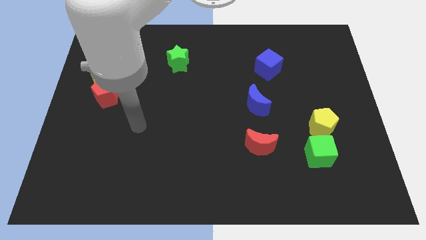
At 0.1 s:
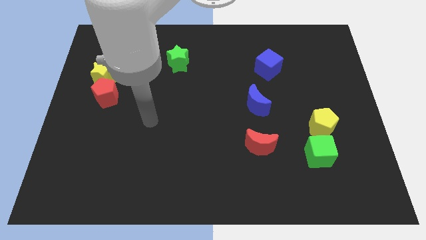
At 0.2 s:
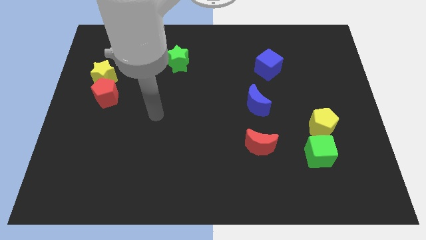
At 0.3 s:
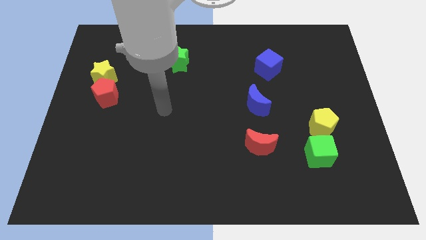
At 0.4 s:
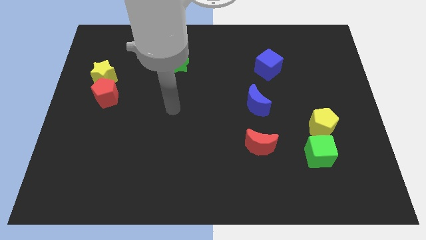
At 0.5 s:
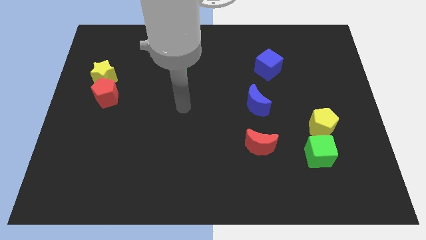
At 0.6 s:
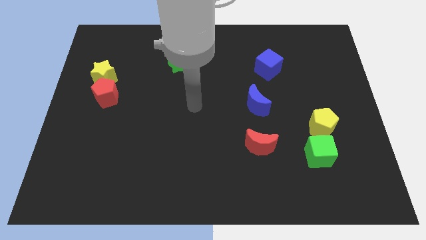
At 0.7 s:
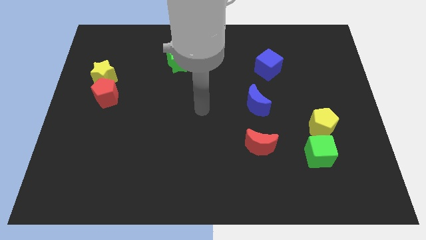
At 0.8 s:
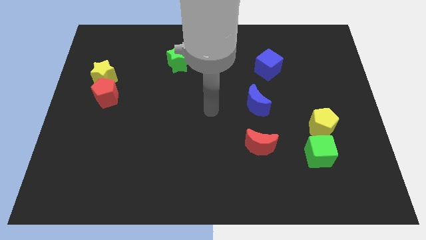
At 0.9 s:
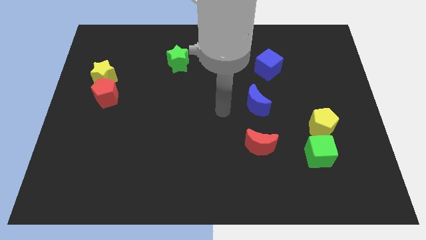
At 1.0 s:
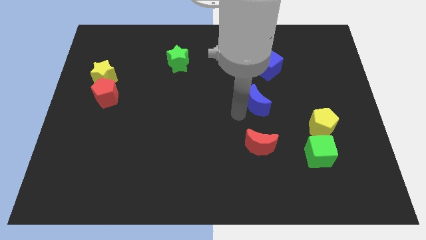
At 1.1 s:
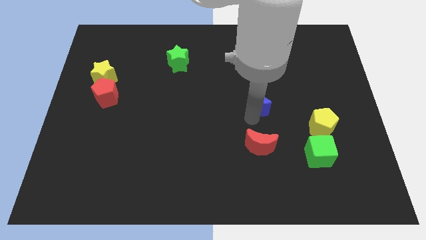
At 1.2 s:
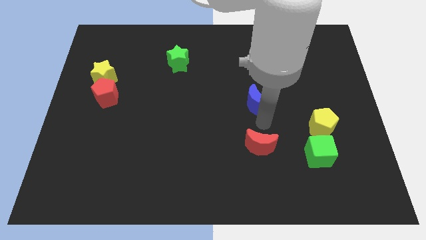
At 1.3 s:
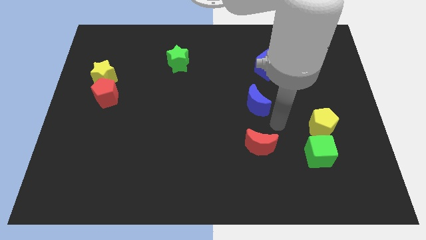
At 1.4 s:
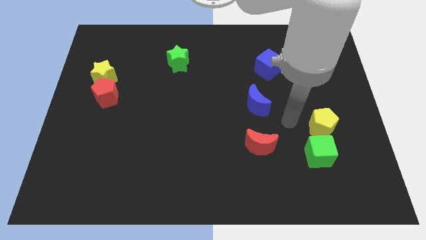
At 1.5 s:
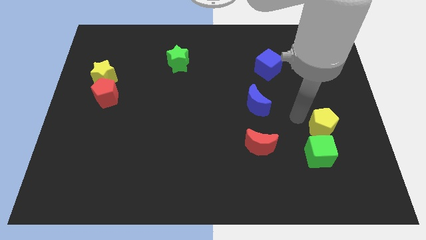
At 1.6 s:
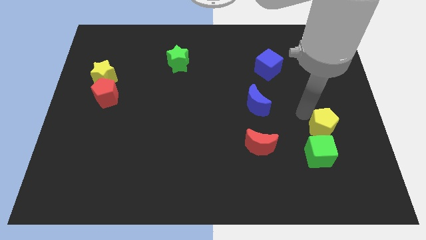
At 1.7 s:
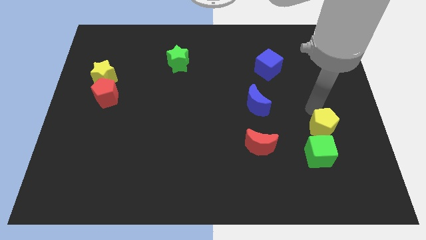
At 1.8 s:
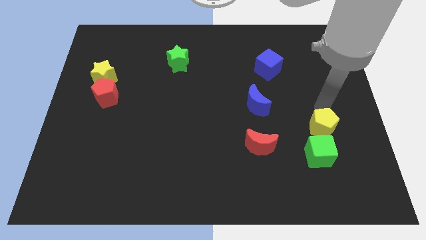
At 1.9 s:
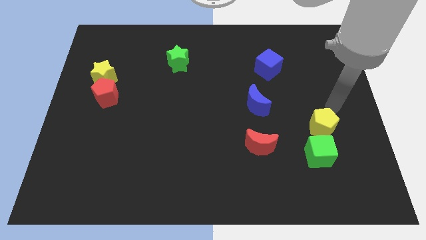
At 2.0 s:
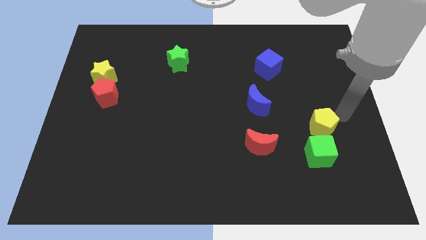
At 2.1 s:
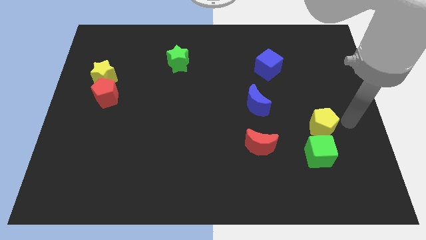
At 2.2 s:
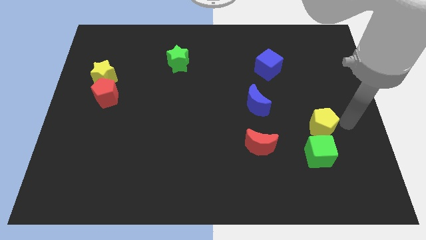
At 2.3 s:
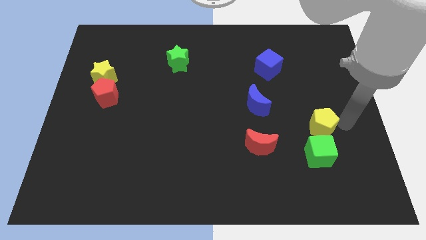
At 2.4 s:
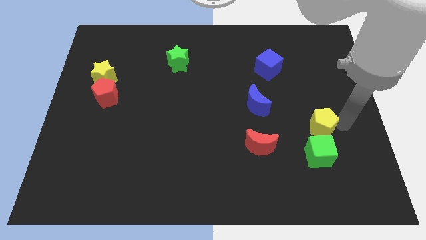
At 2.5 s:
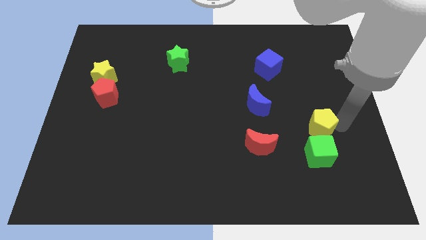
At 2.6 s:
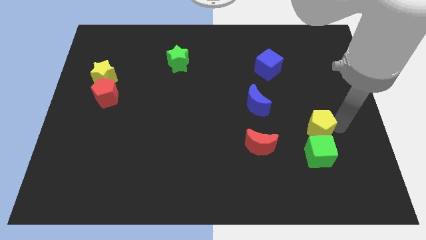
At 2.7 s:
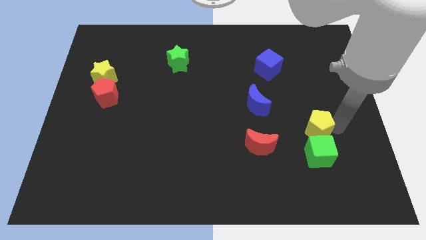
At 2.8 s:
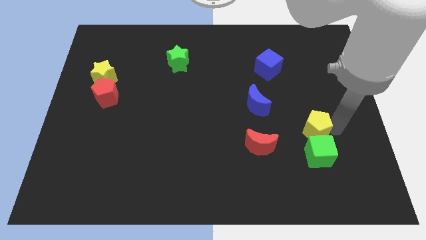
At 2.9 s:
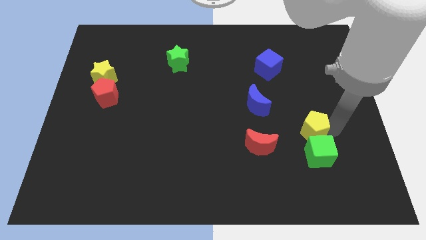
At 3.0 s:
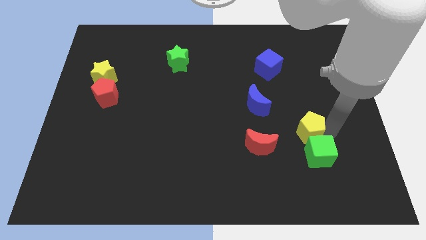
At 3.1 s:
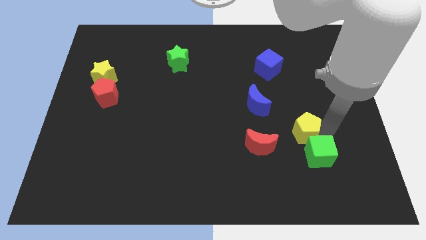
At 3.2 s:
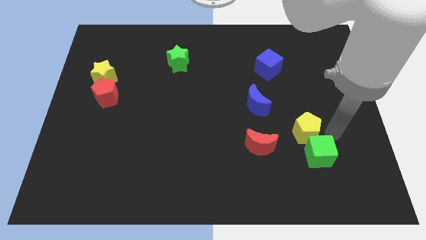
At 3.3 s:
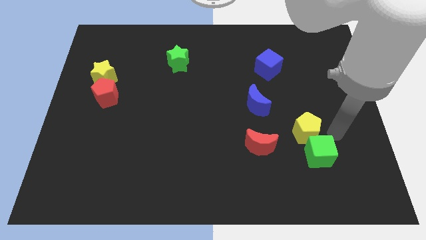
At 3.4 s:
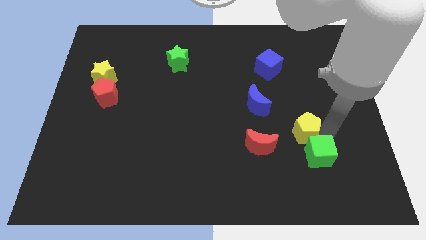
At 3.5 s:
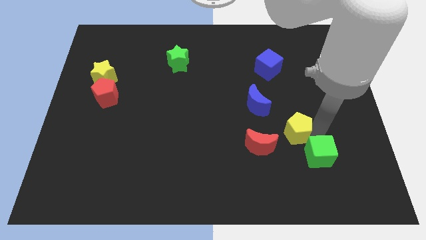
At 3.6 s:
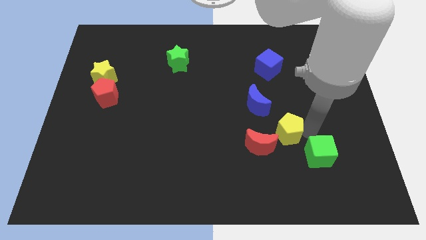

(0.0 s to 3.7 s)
push the yellow pentagon left a little

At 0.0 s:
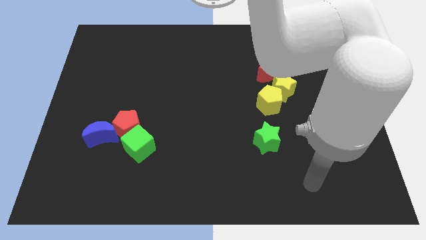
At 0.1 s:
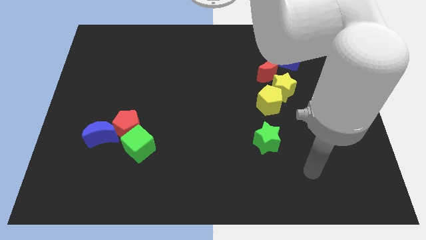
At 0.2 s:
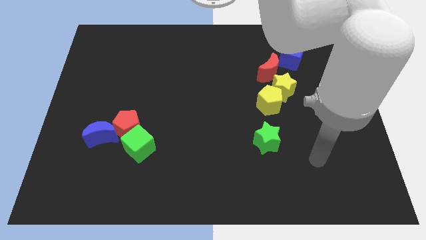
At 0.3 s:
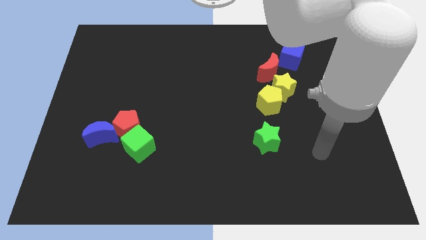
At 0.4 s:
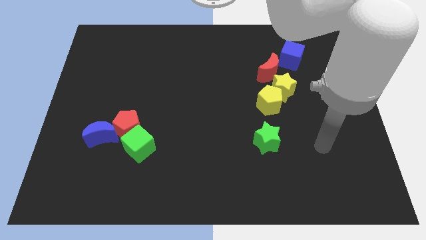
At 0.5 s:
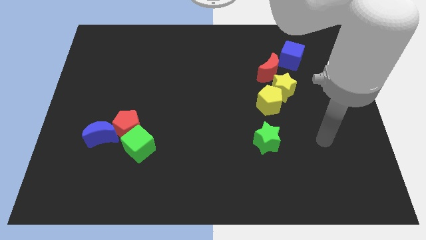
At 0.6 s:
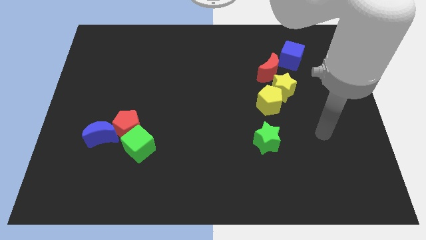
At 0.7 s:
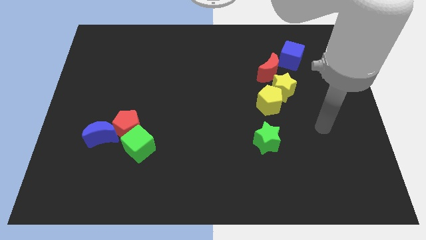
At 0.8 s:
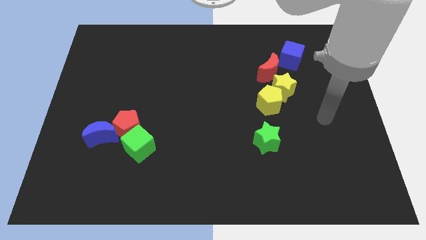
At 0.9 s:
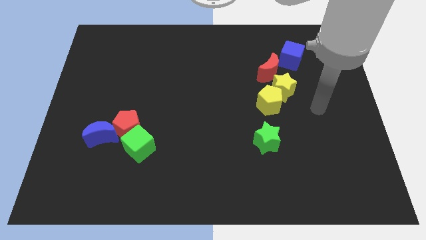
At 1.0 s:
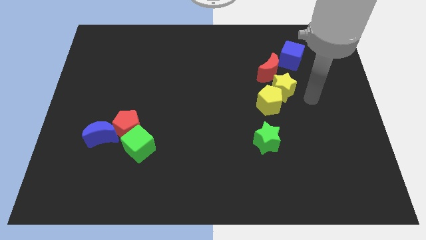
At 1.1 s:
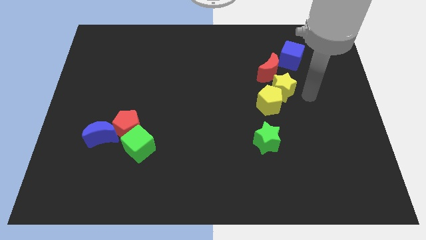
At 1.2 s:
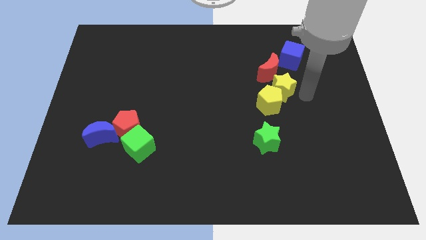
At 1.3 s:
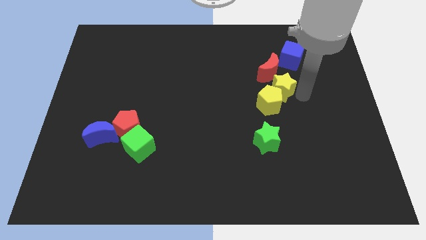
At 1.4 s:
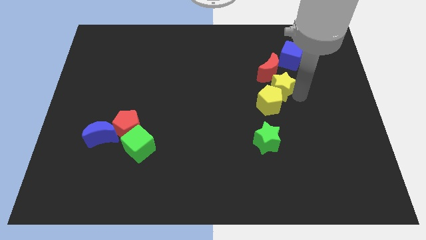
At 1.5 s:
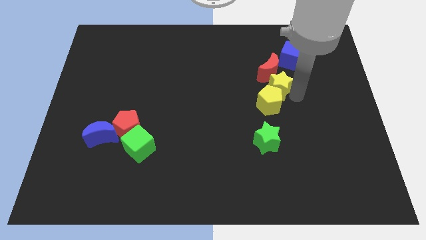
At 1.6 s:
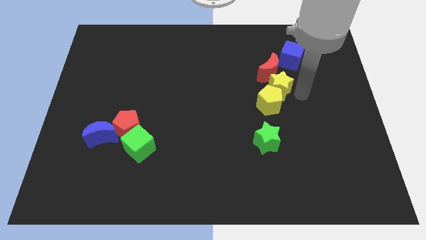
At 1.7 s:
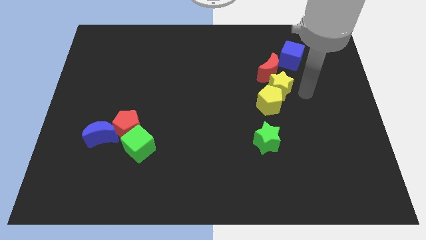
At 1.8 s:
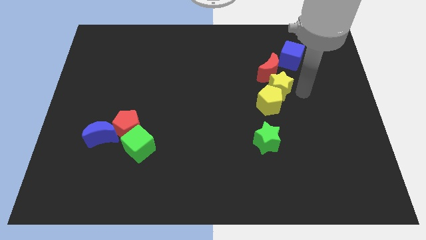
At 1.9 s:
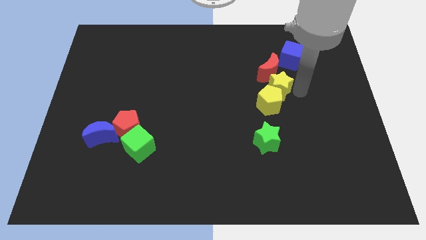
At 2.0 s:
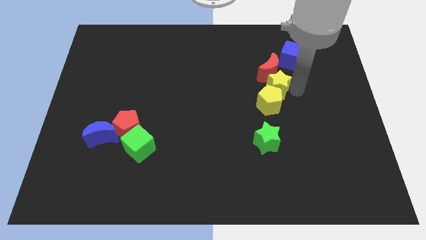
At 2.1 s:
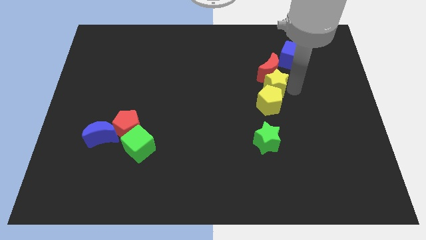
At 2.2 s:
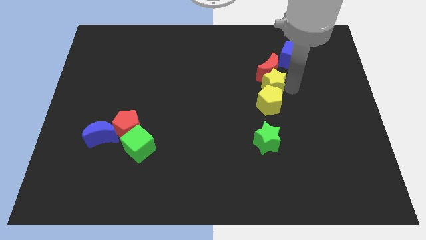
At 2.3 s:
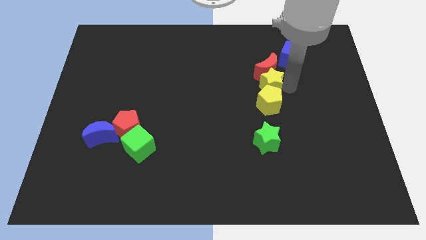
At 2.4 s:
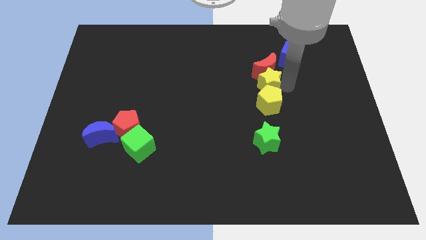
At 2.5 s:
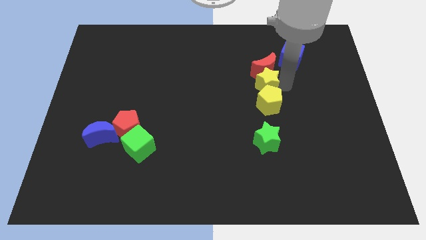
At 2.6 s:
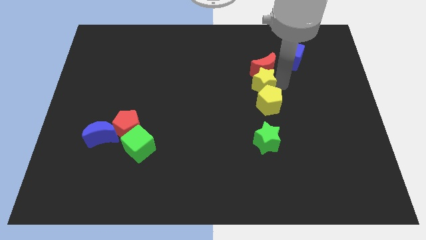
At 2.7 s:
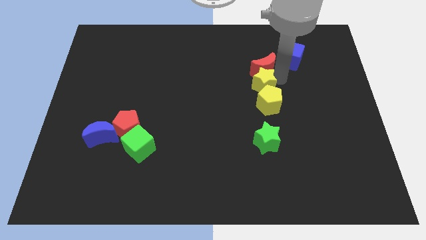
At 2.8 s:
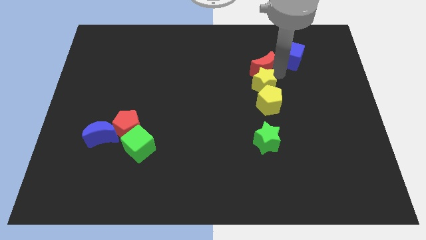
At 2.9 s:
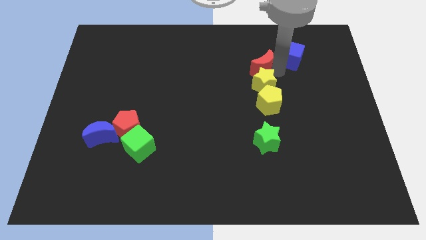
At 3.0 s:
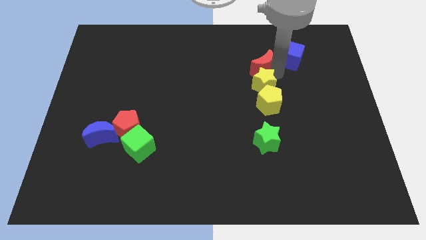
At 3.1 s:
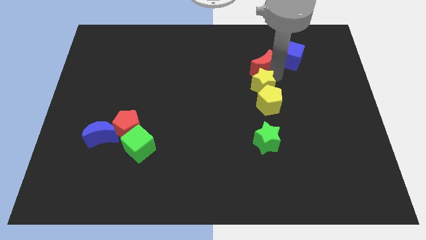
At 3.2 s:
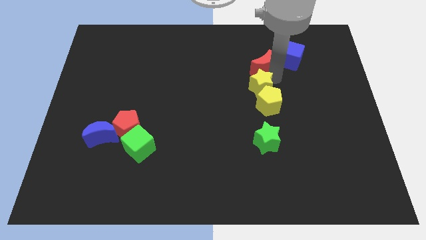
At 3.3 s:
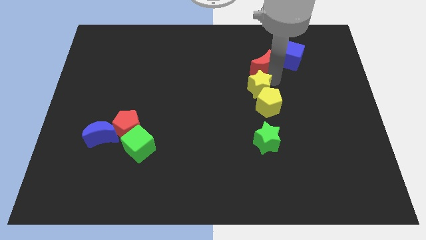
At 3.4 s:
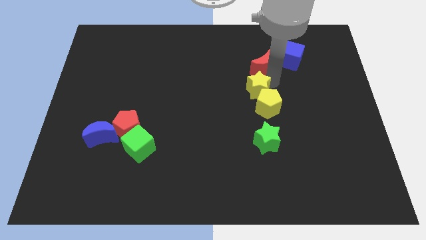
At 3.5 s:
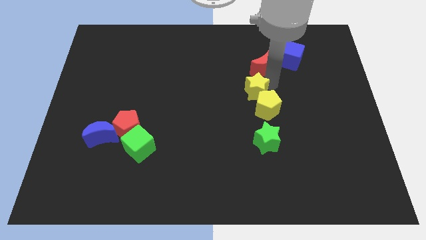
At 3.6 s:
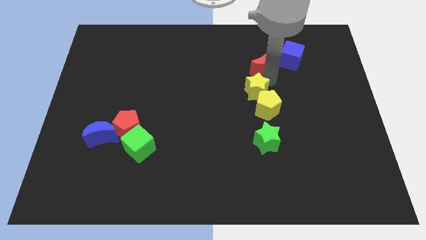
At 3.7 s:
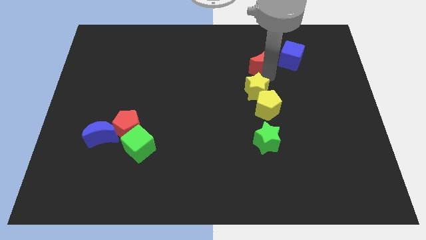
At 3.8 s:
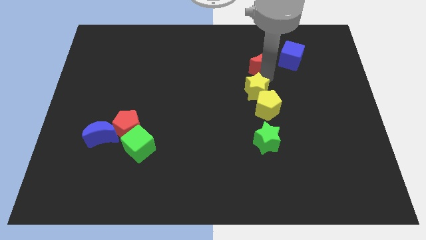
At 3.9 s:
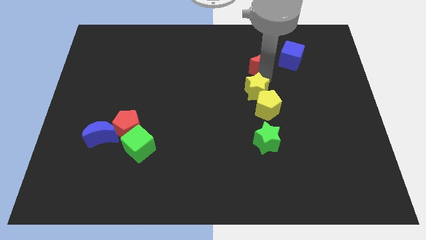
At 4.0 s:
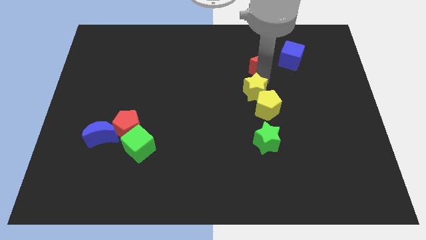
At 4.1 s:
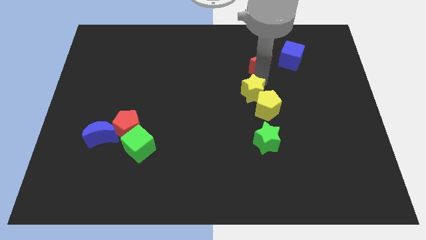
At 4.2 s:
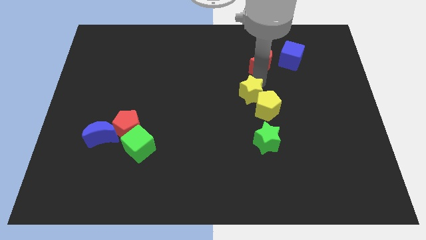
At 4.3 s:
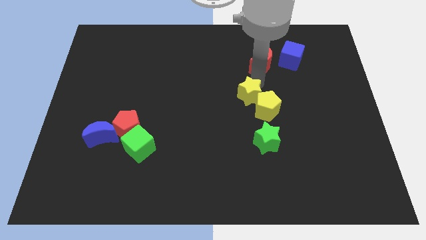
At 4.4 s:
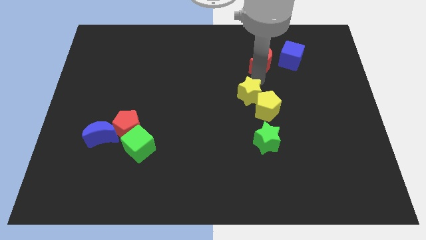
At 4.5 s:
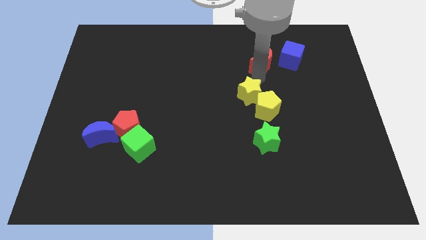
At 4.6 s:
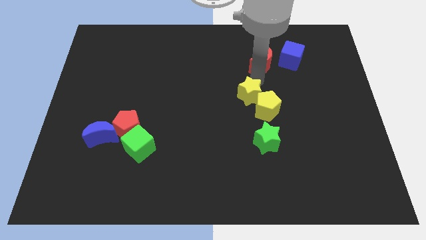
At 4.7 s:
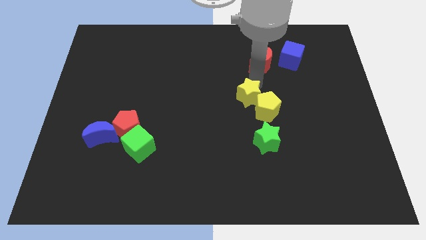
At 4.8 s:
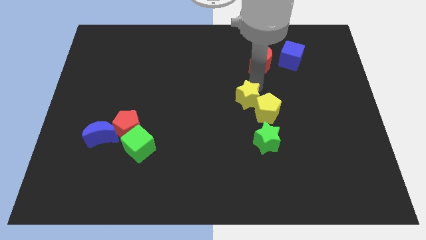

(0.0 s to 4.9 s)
move the yellow star diagonally down and to the left somewhat
